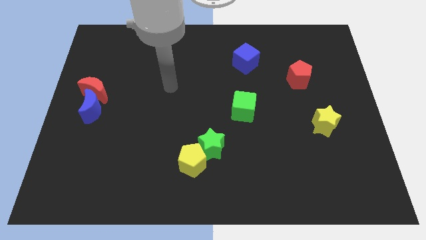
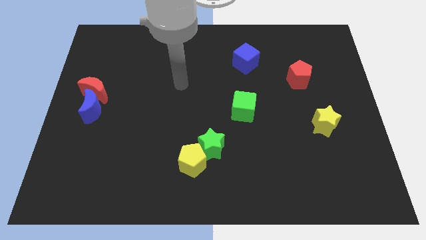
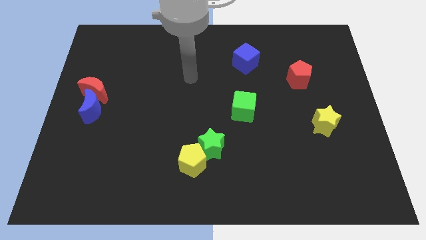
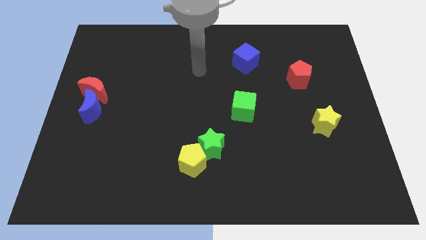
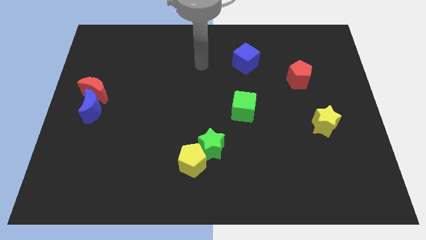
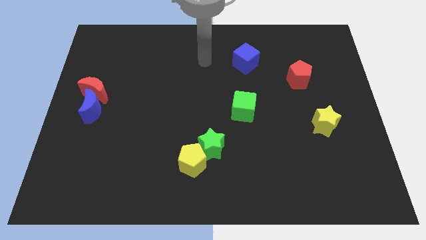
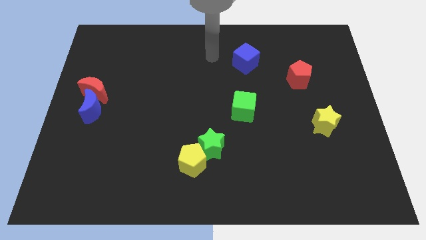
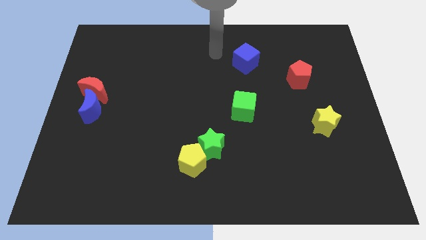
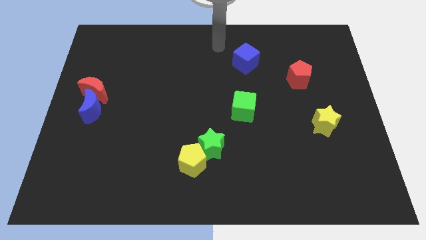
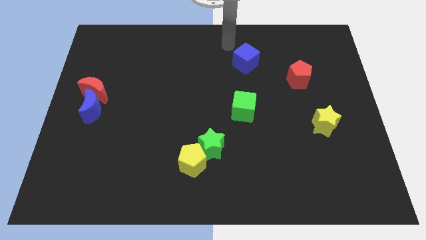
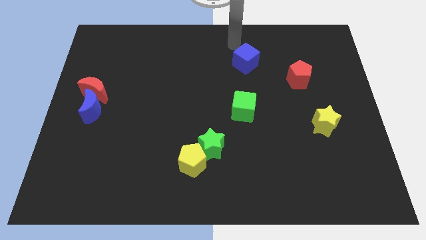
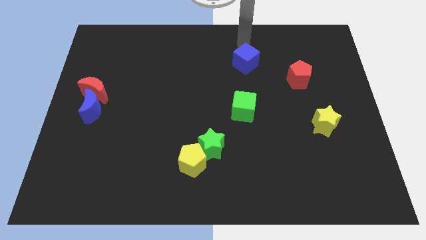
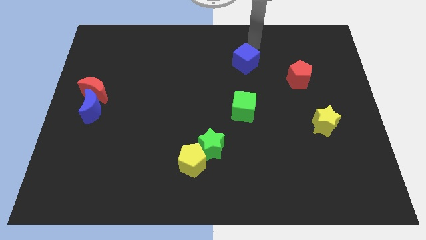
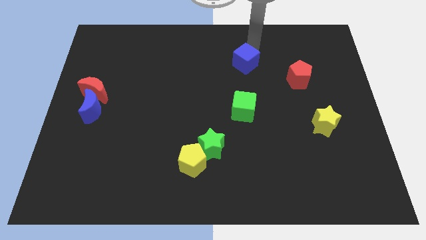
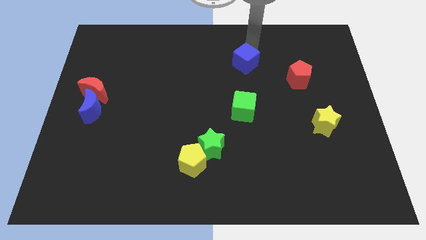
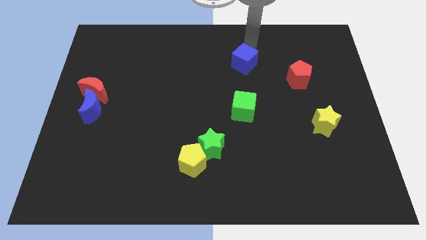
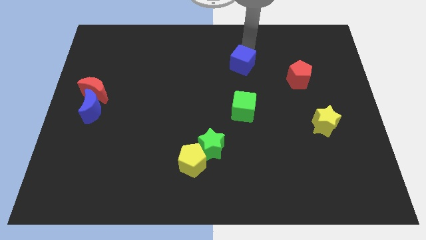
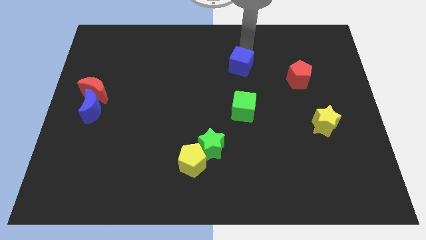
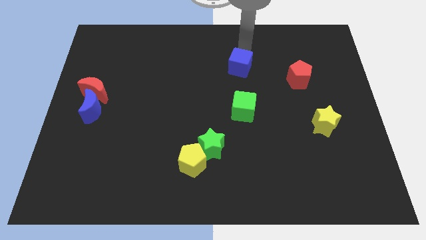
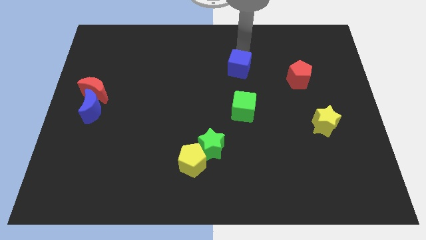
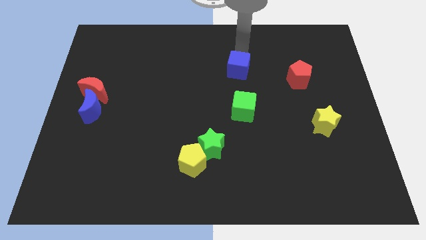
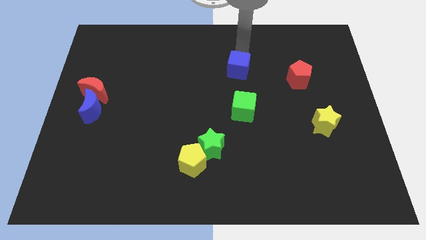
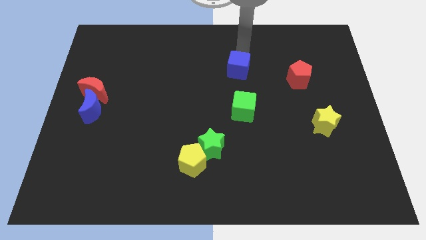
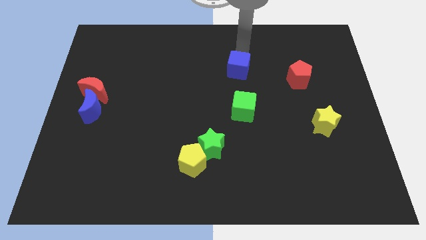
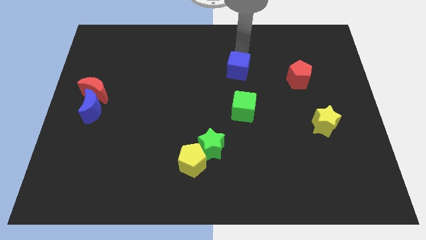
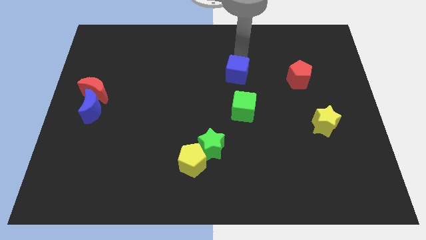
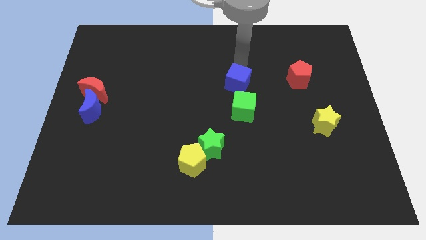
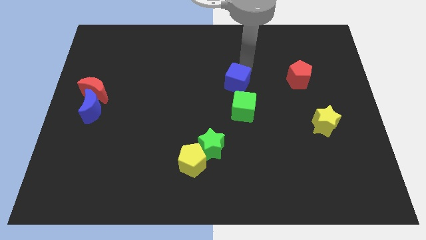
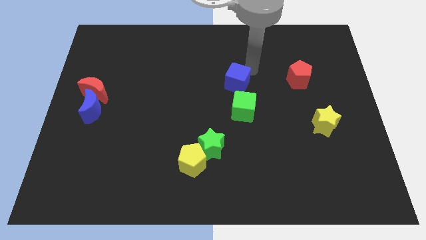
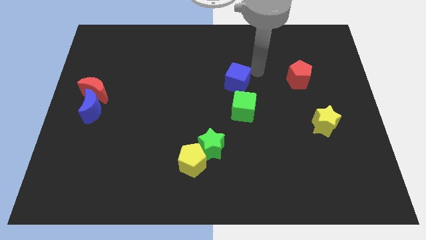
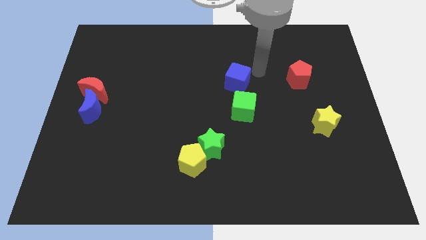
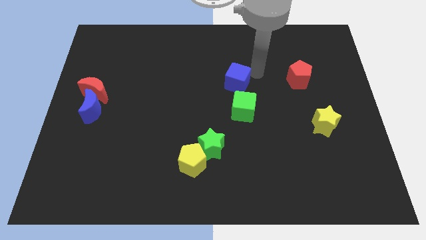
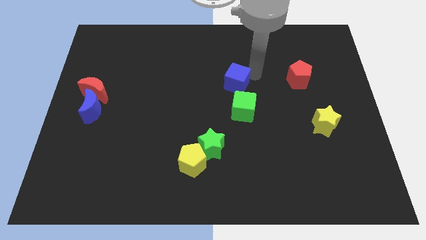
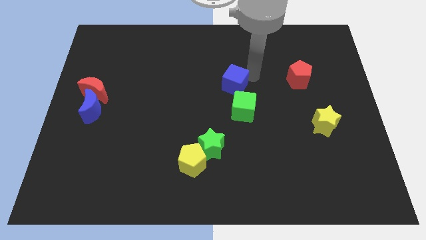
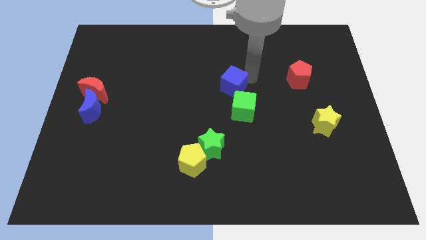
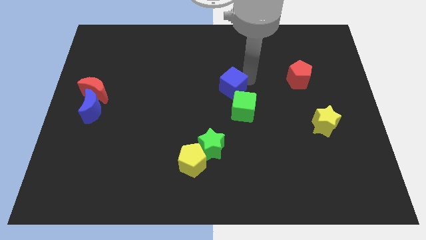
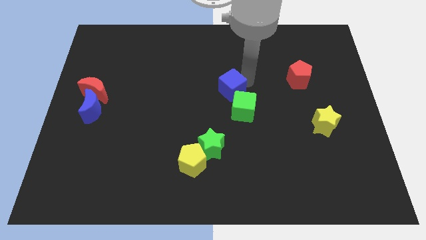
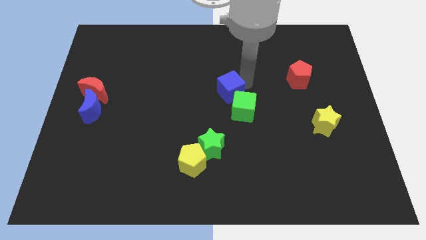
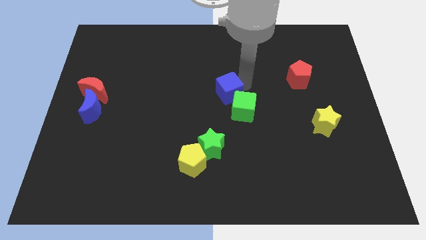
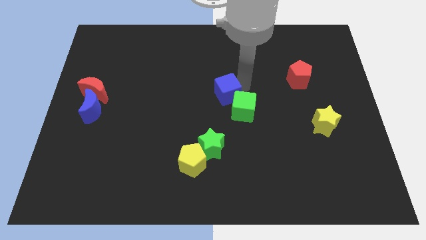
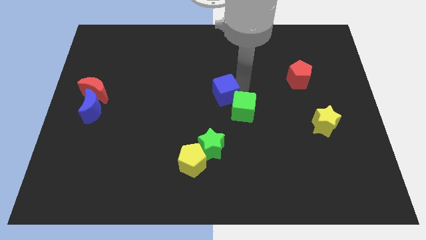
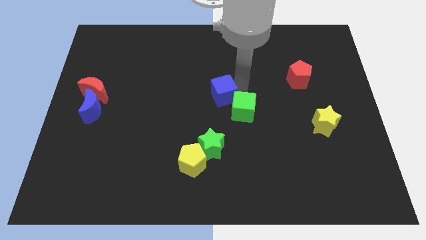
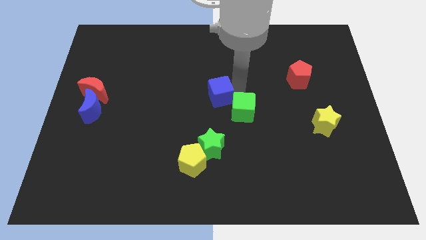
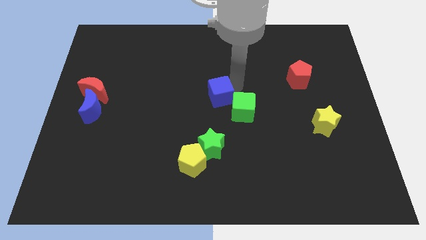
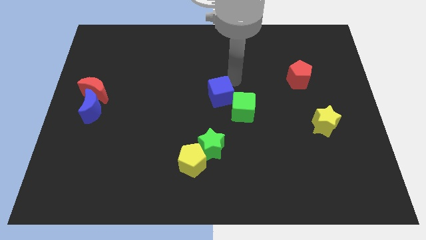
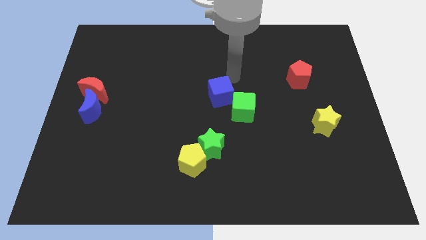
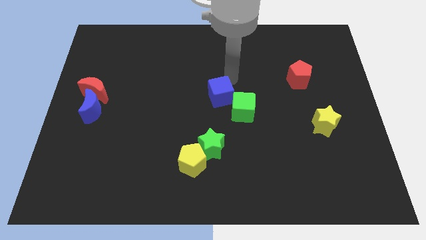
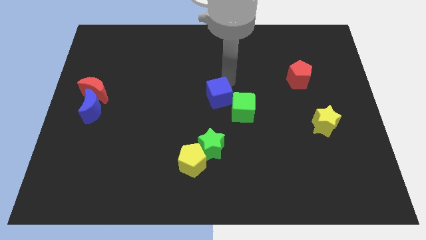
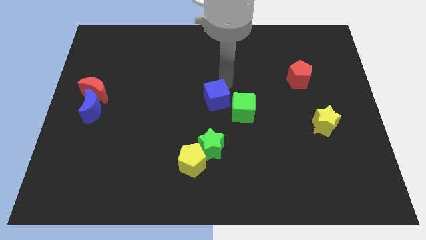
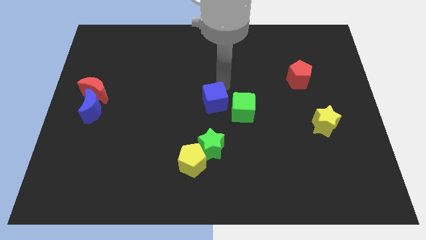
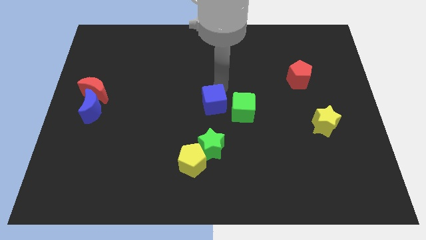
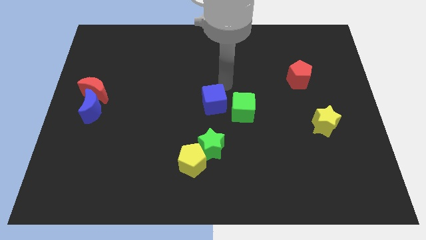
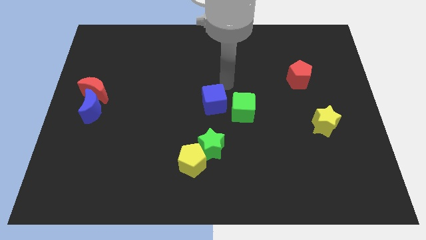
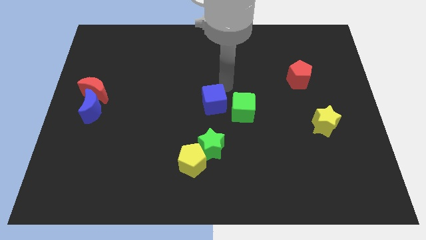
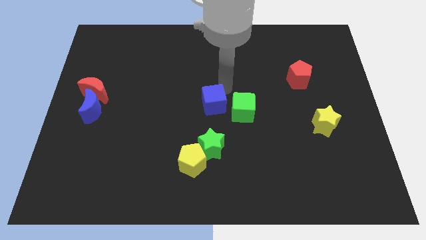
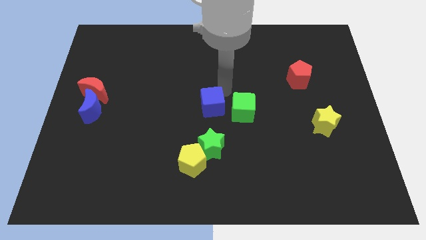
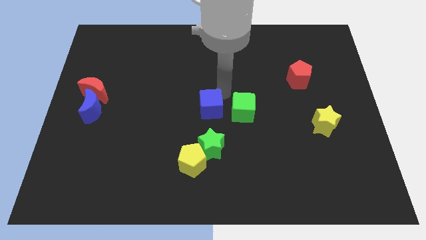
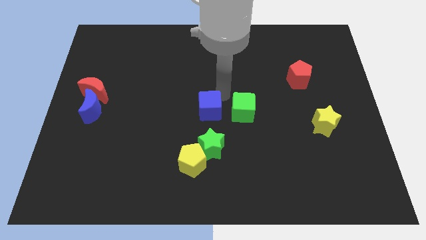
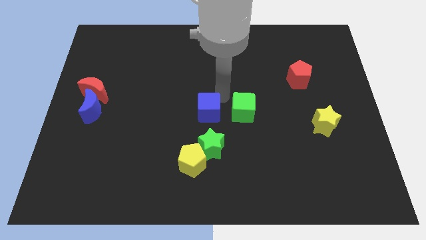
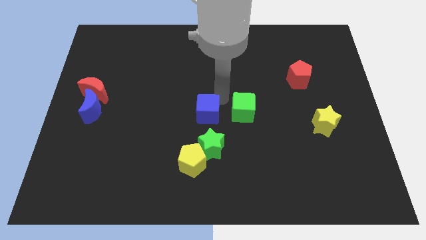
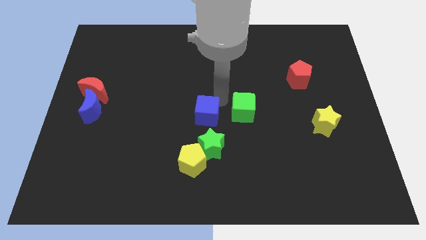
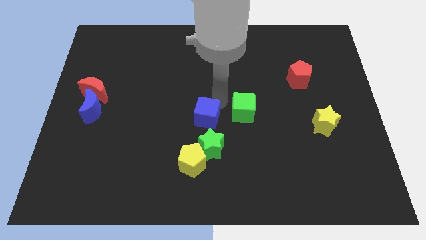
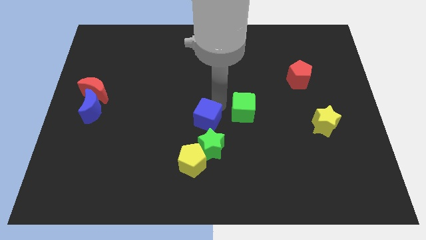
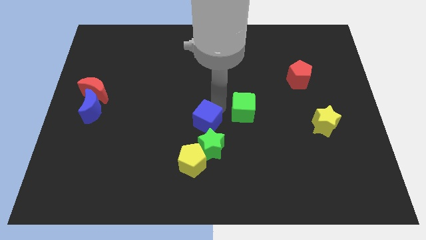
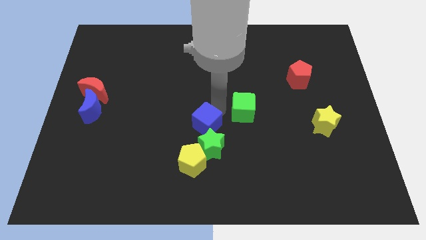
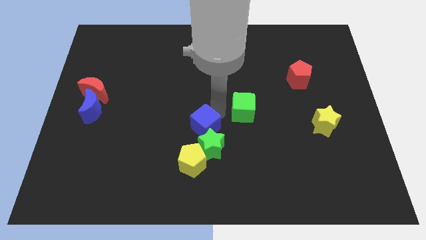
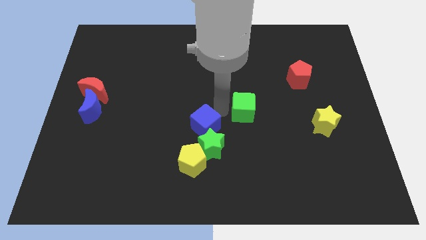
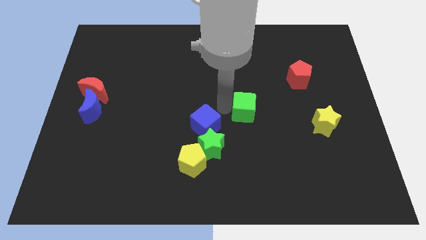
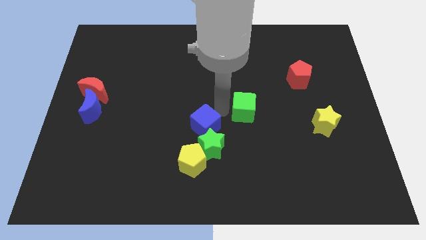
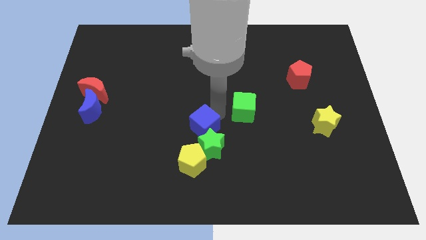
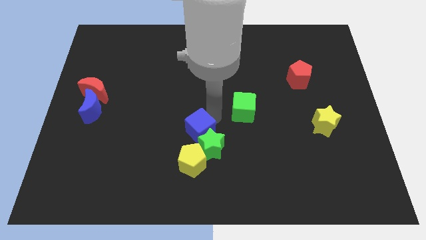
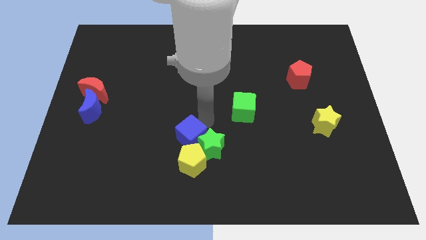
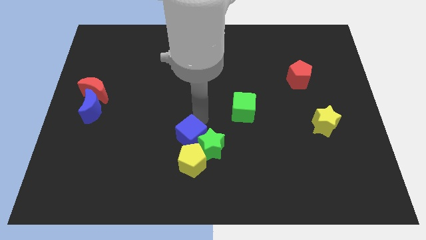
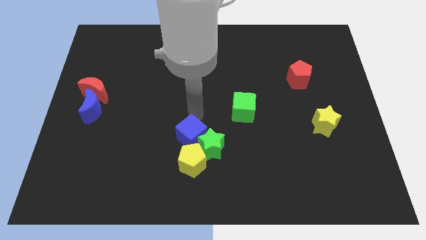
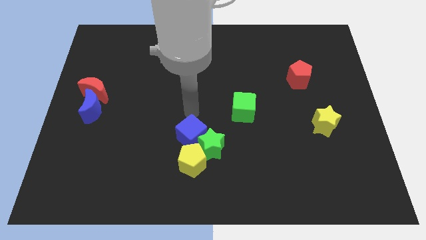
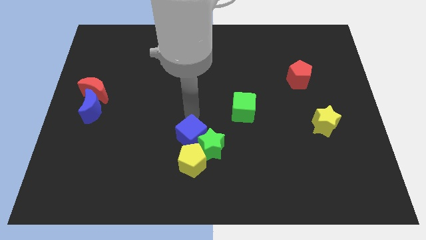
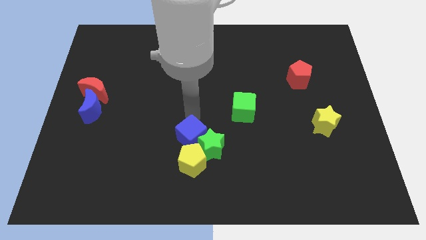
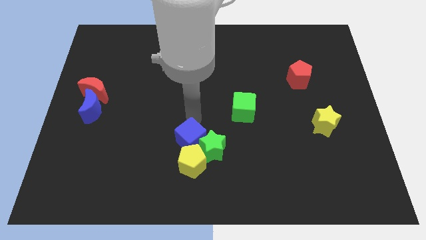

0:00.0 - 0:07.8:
slide the blue cube to the yellow pentagon
